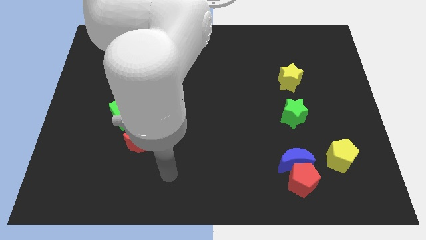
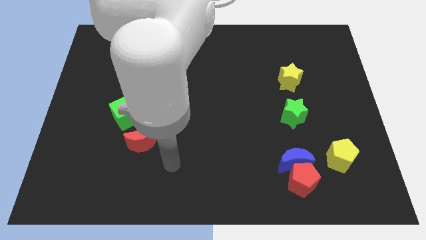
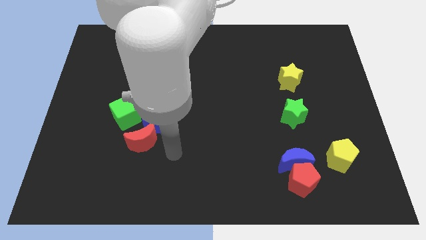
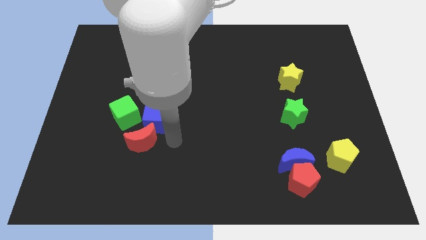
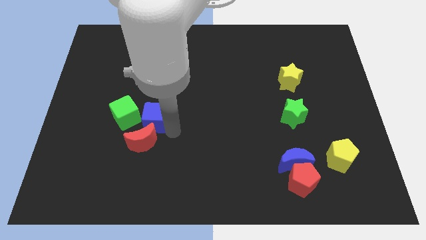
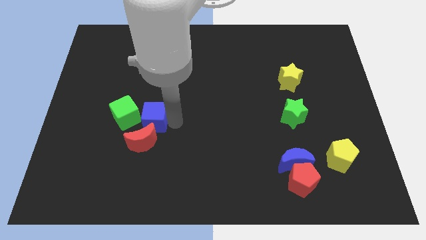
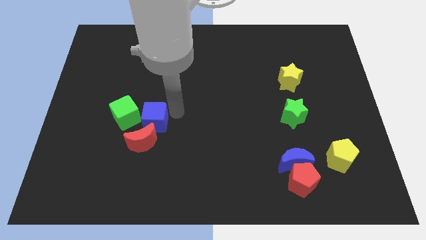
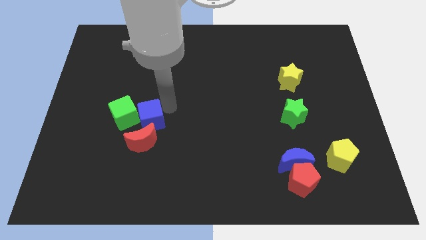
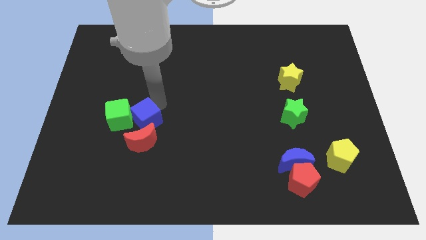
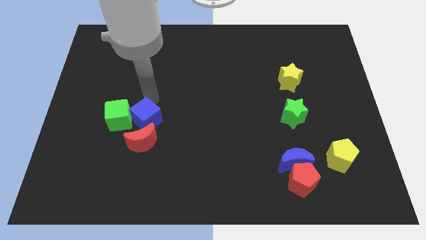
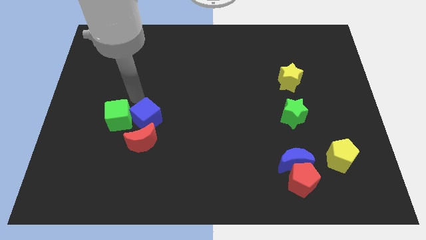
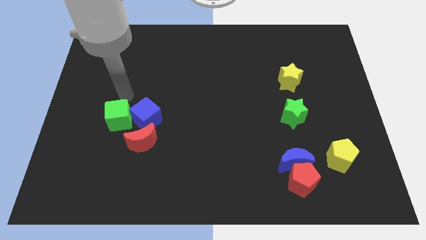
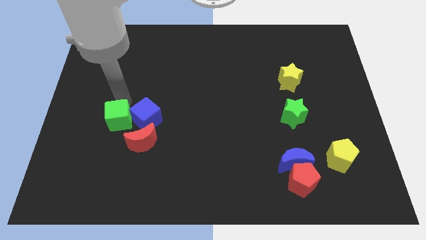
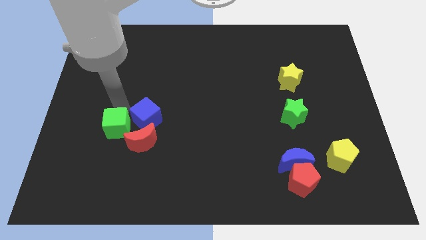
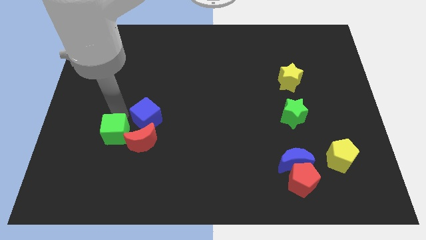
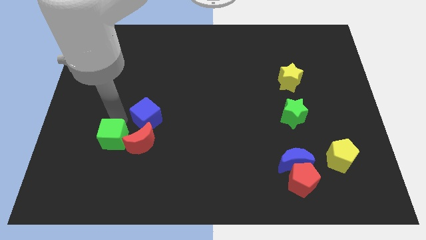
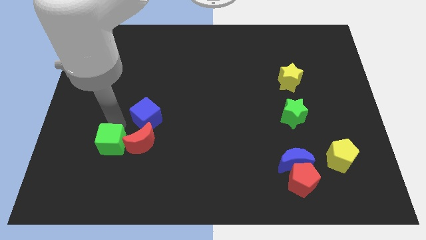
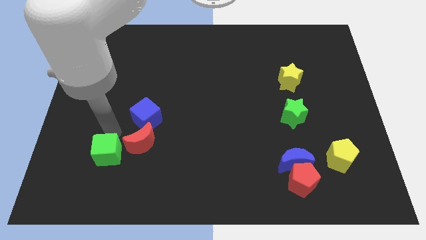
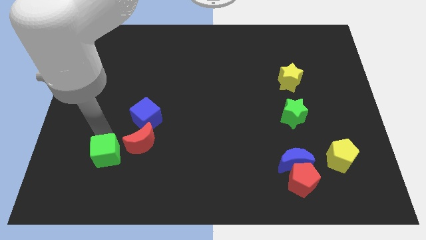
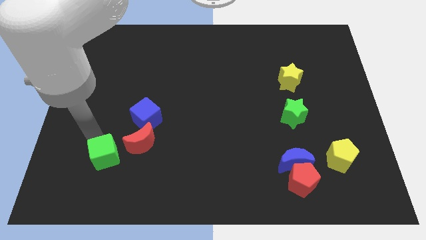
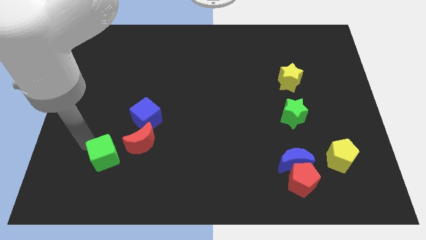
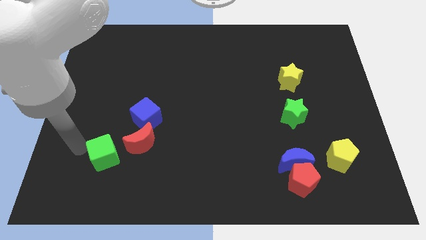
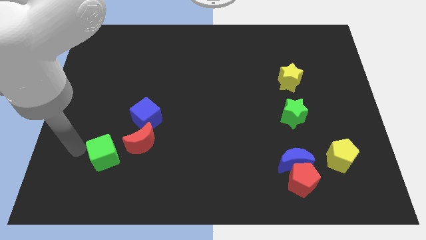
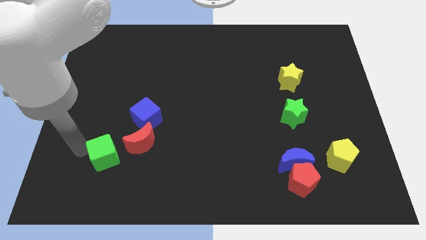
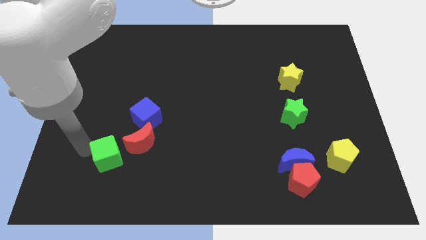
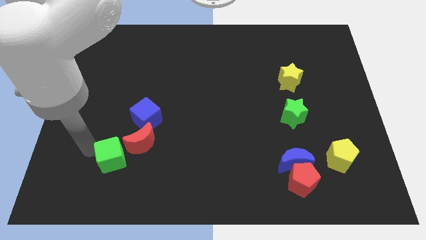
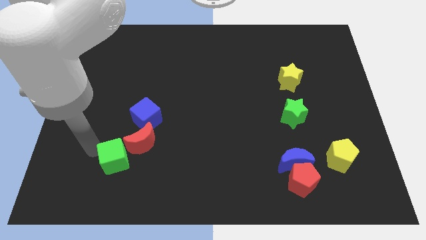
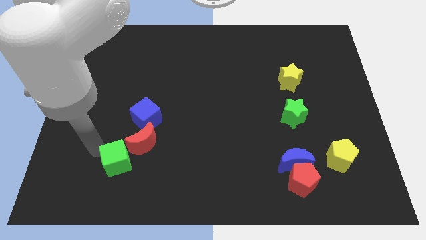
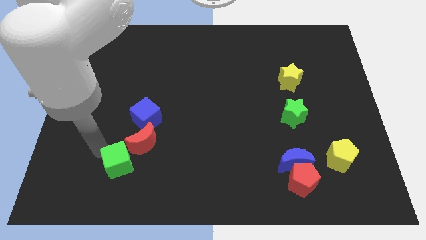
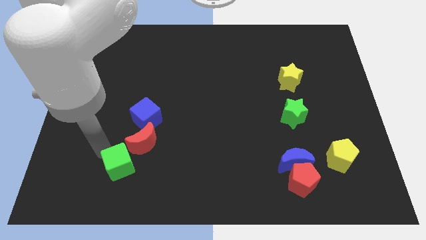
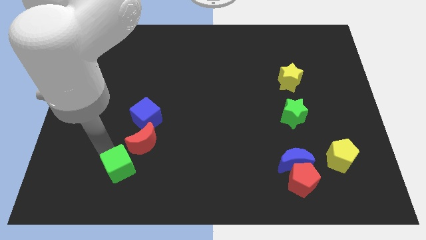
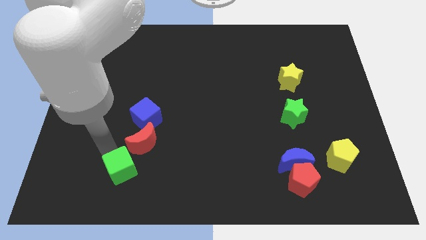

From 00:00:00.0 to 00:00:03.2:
move the green cube diagonally downwards and to the right slightly

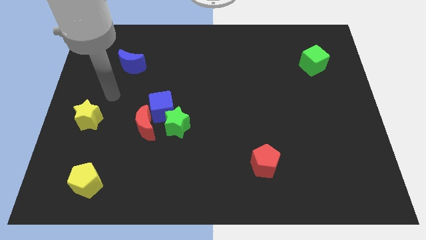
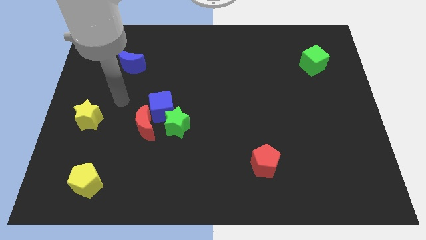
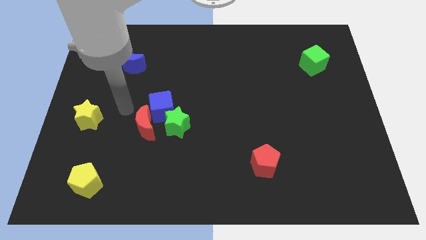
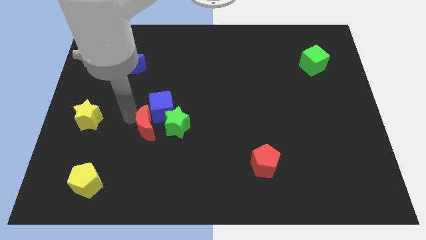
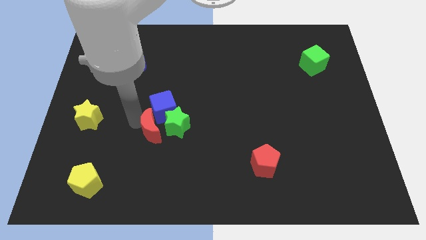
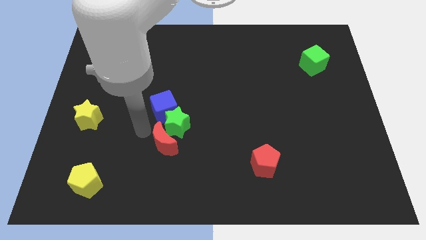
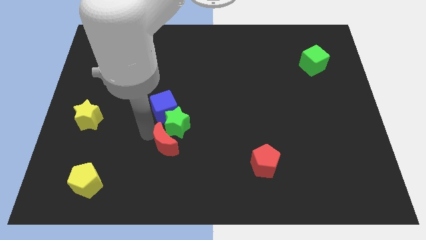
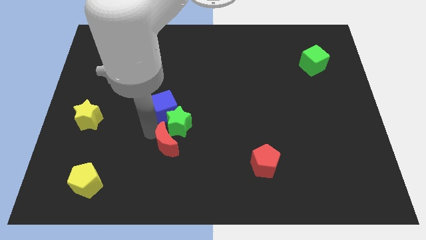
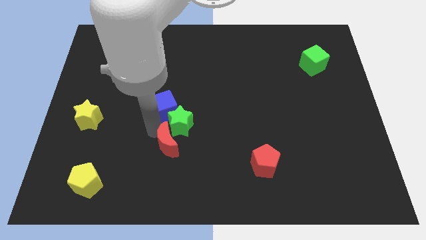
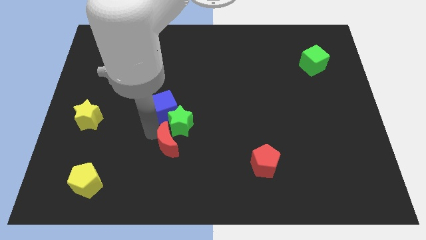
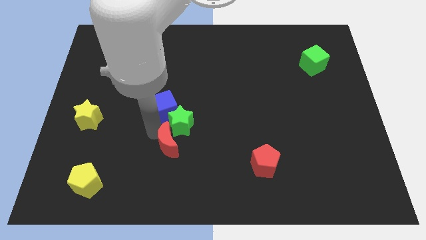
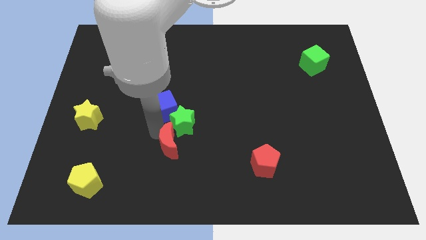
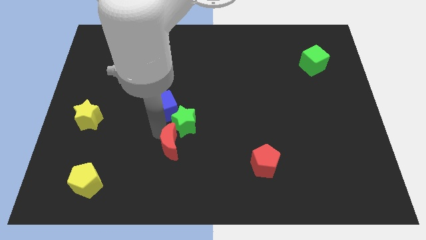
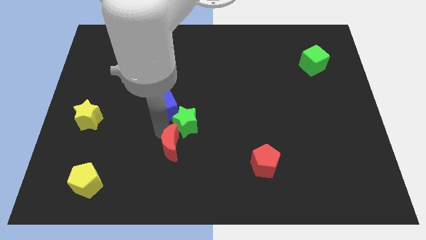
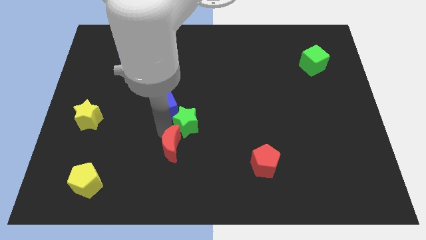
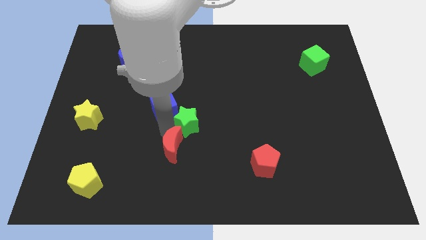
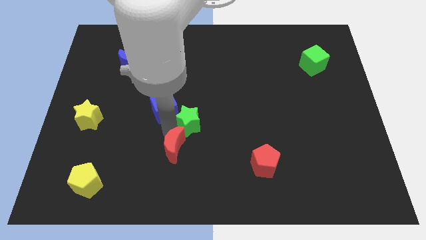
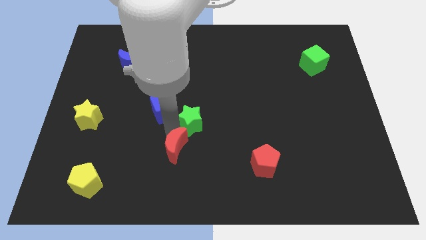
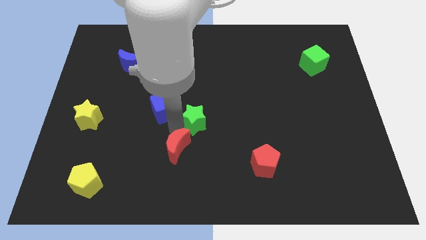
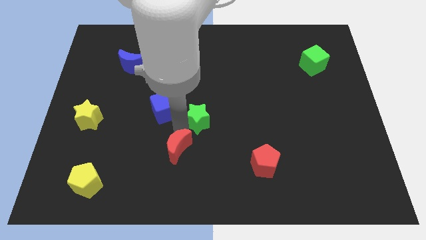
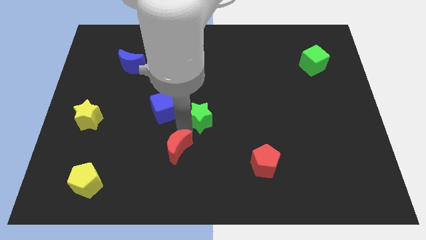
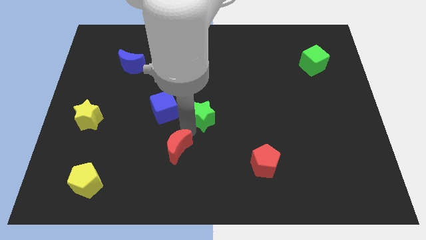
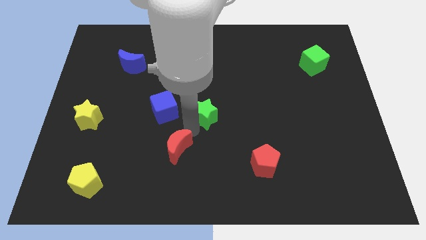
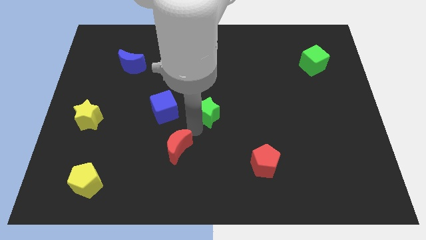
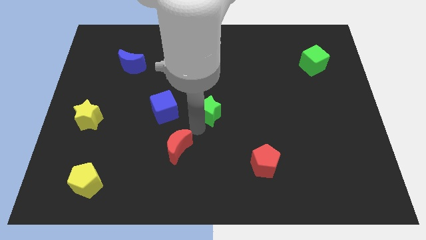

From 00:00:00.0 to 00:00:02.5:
slightly move the green star upwards and right

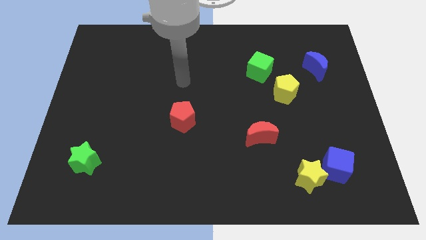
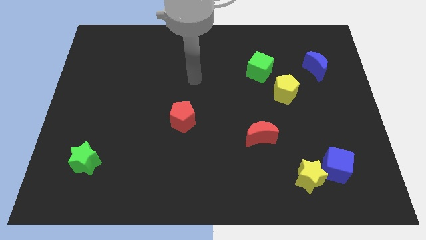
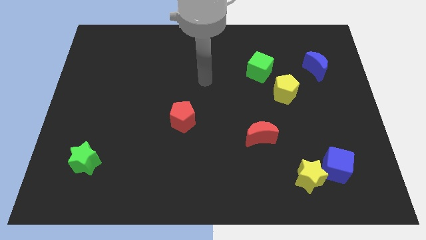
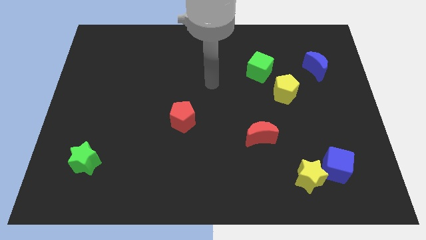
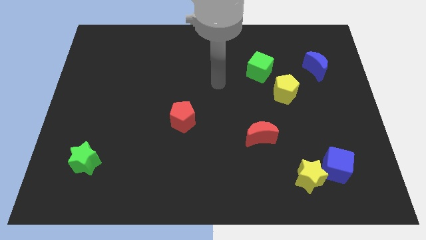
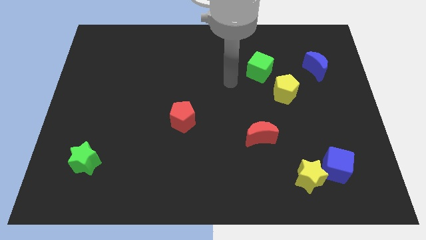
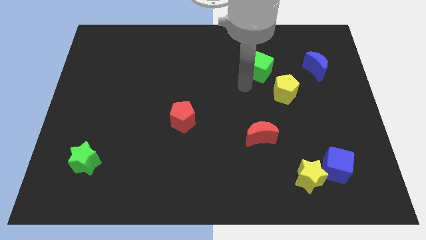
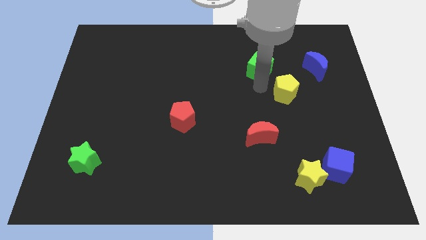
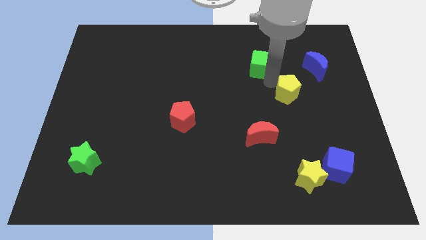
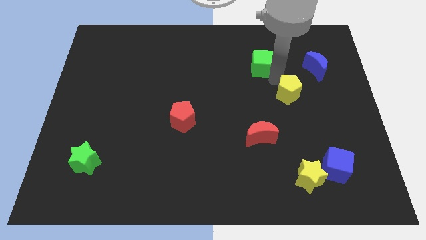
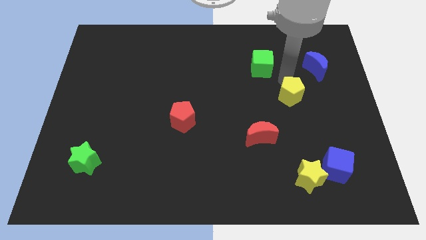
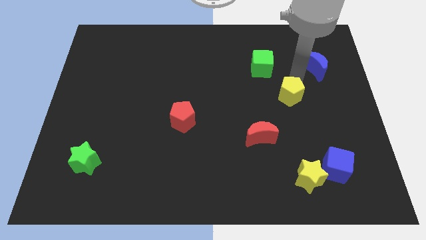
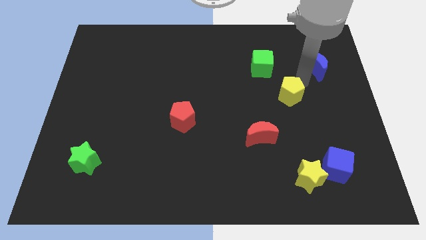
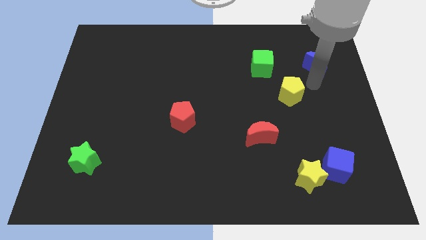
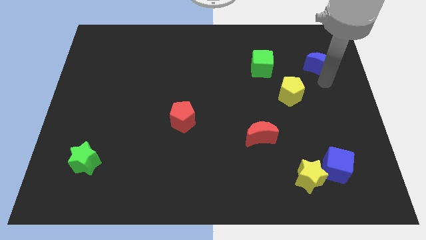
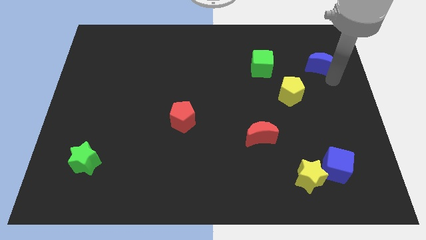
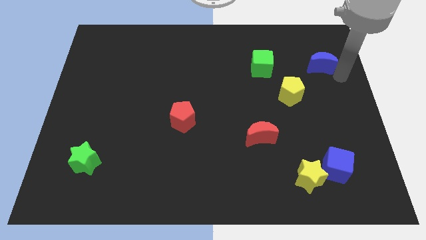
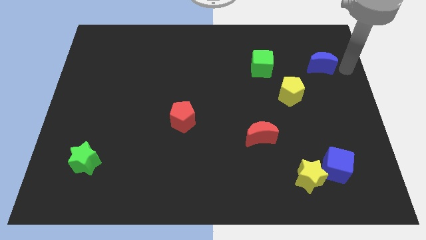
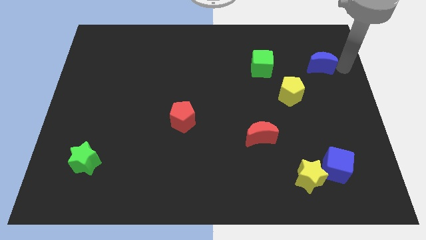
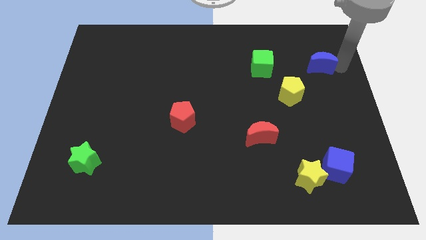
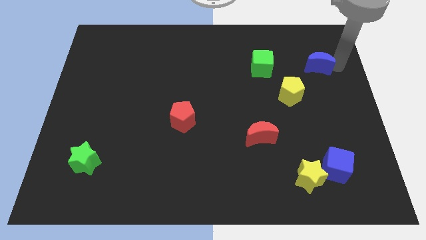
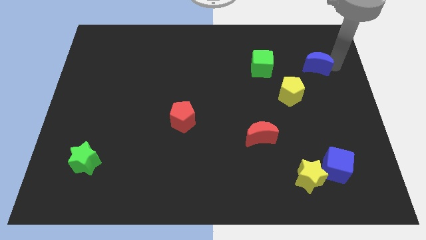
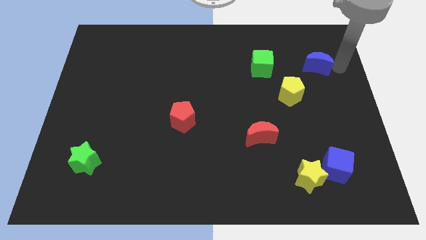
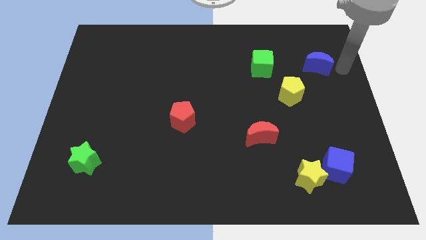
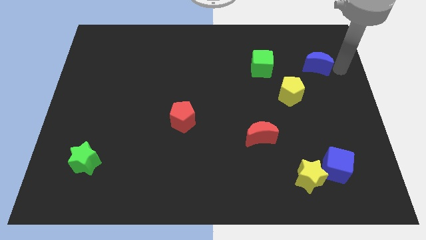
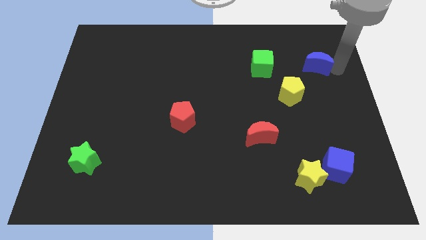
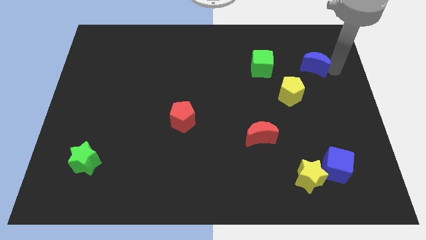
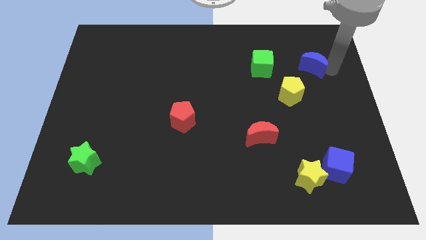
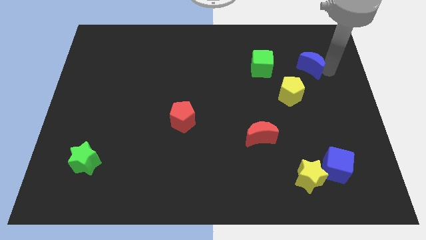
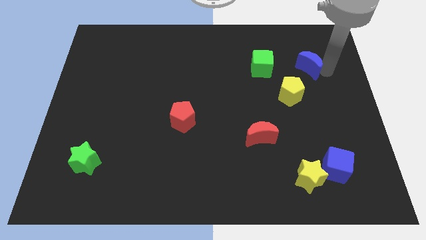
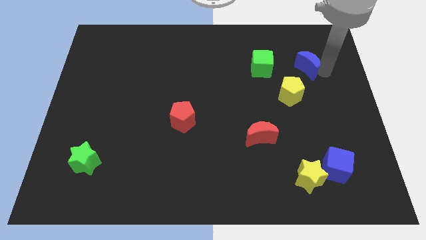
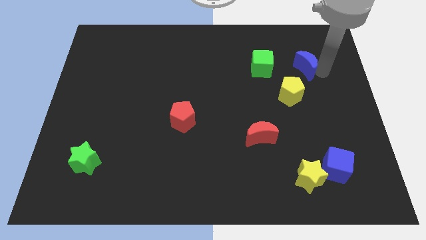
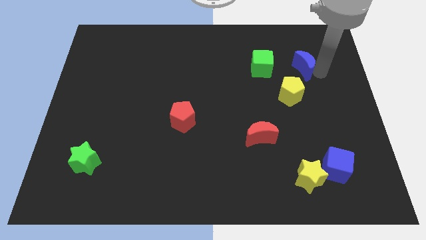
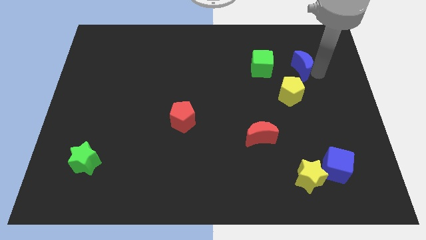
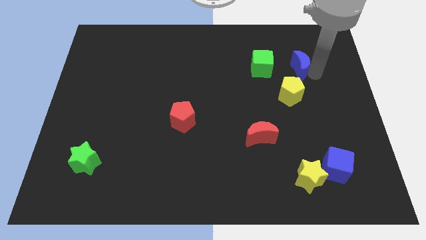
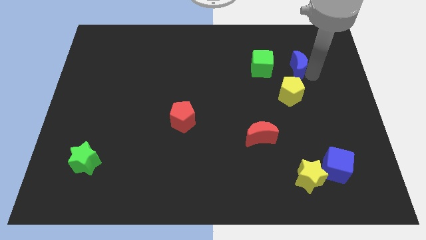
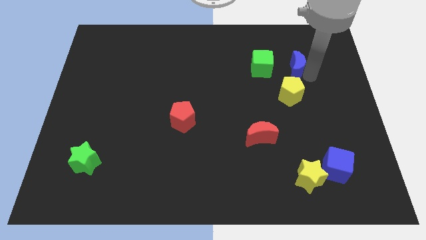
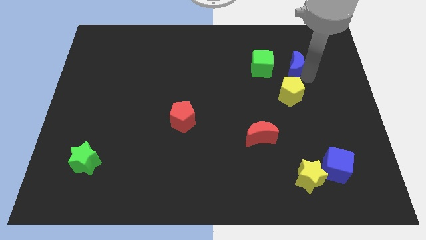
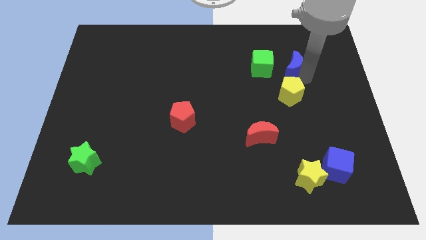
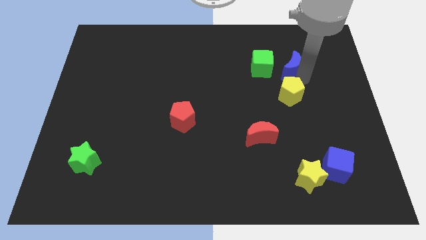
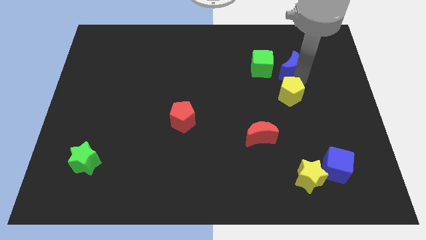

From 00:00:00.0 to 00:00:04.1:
push the blue moon slightly left
